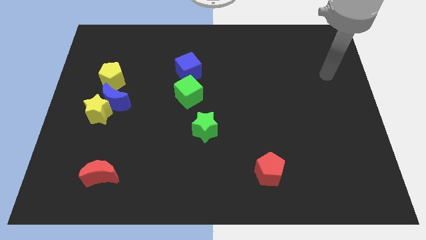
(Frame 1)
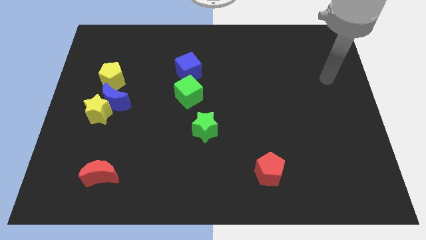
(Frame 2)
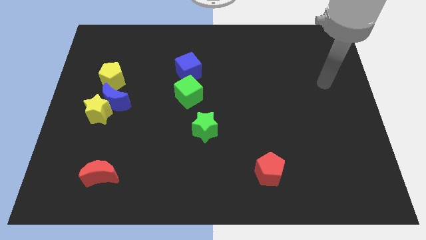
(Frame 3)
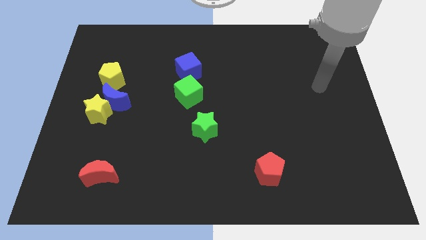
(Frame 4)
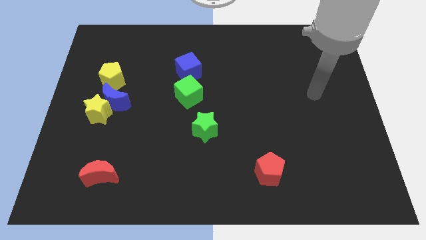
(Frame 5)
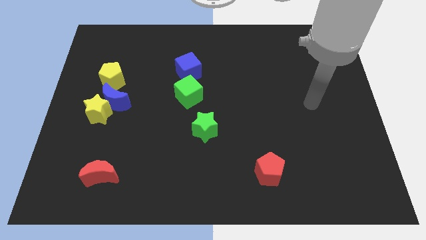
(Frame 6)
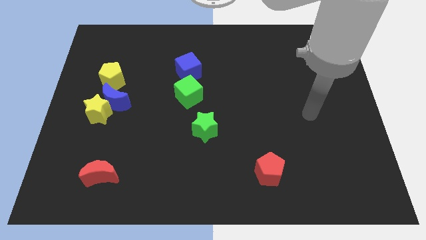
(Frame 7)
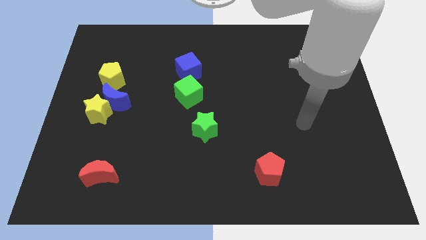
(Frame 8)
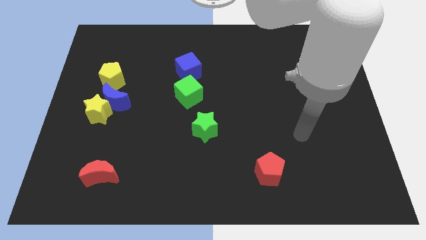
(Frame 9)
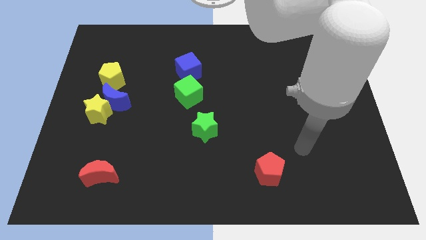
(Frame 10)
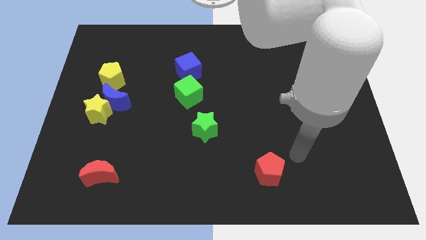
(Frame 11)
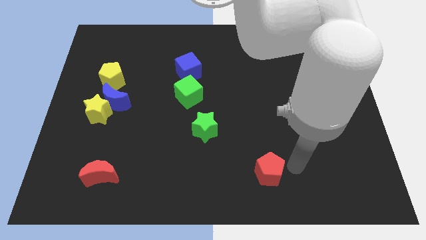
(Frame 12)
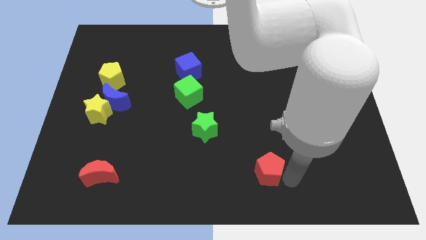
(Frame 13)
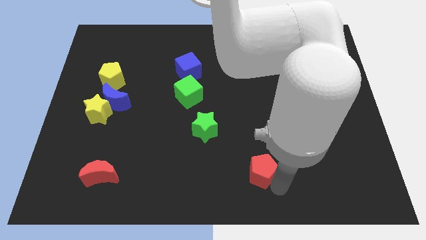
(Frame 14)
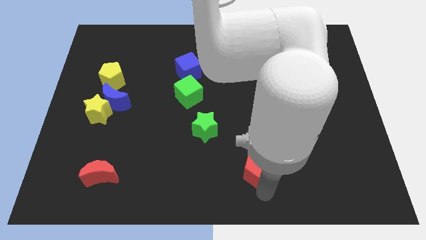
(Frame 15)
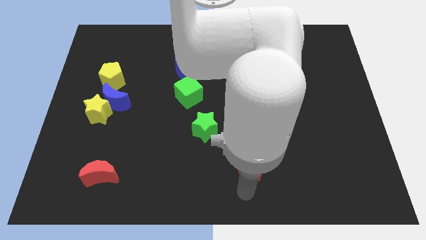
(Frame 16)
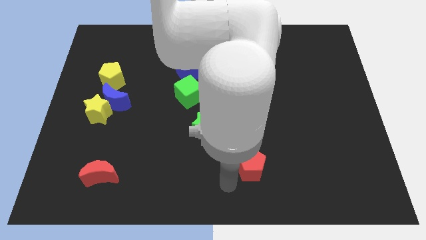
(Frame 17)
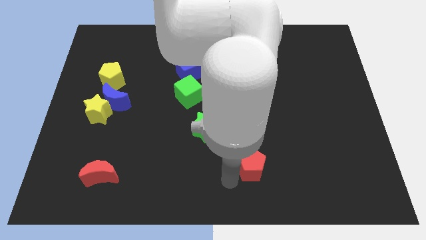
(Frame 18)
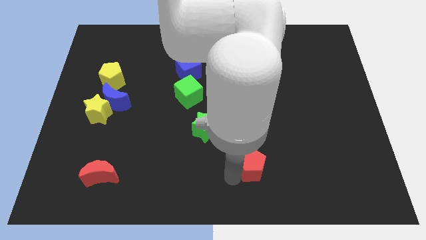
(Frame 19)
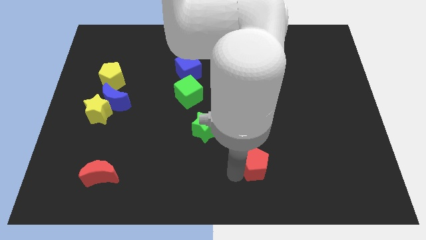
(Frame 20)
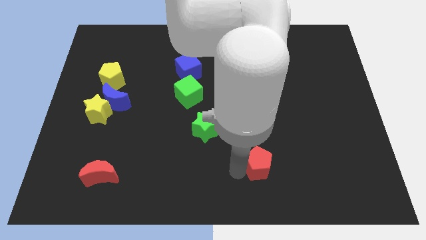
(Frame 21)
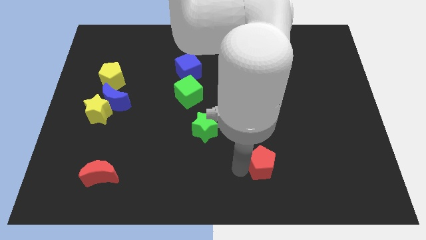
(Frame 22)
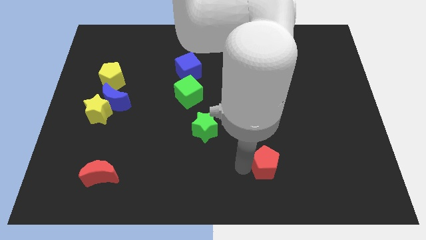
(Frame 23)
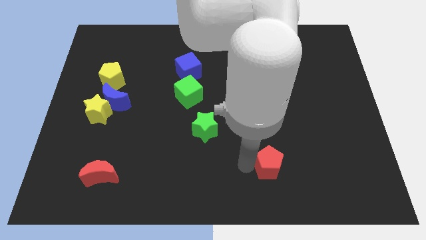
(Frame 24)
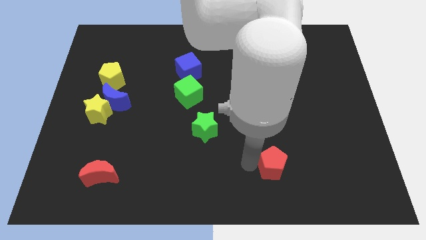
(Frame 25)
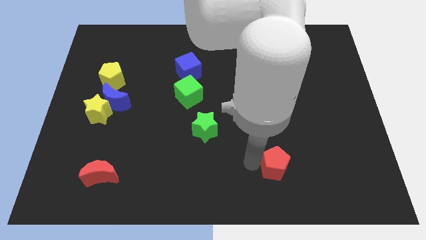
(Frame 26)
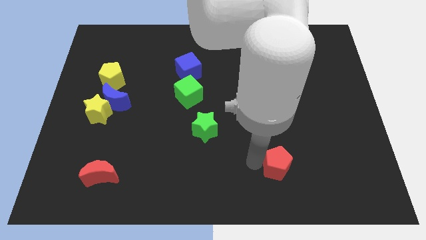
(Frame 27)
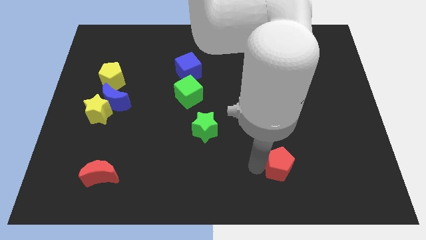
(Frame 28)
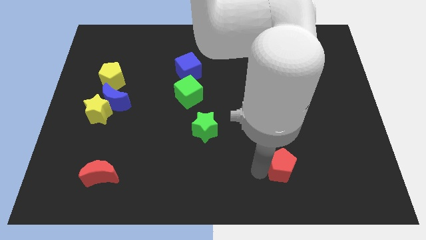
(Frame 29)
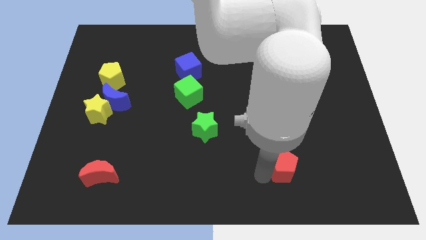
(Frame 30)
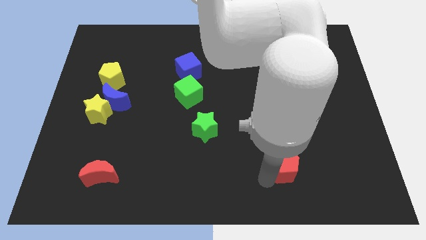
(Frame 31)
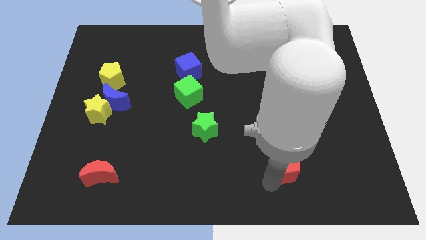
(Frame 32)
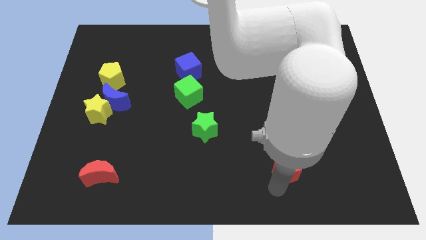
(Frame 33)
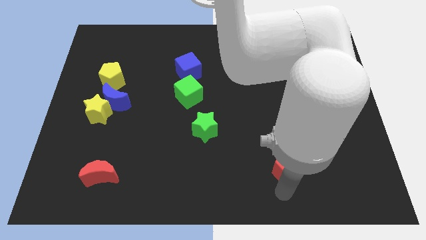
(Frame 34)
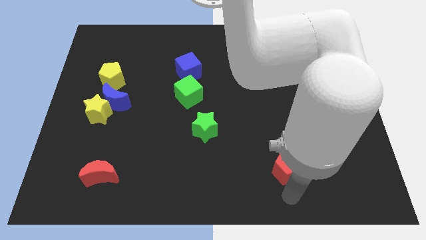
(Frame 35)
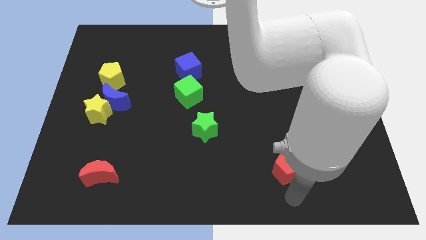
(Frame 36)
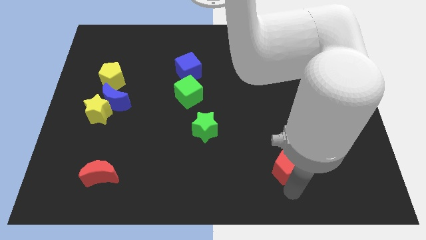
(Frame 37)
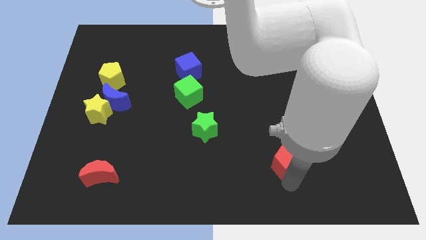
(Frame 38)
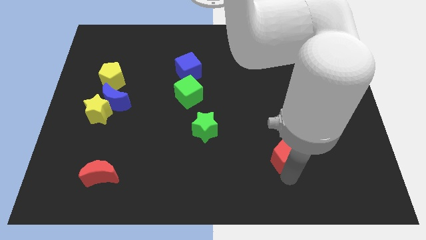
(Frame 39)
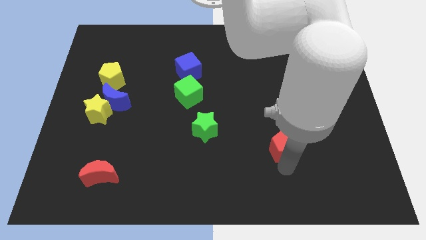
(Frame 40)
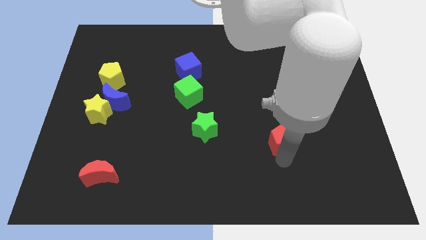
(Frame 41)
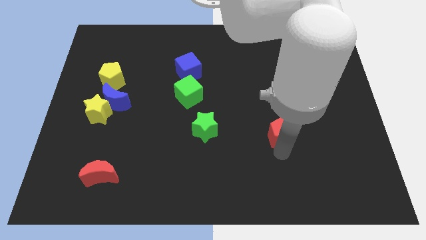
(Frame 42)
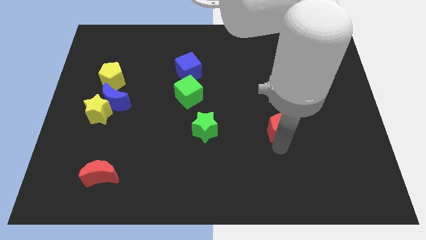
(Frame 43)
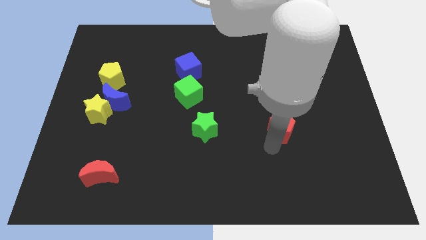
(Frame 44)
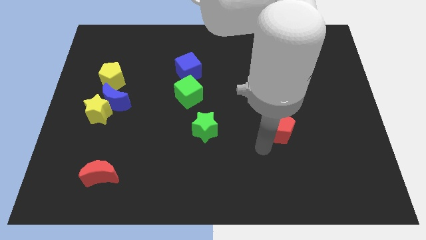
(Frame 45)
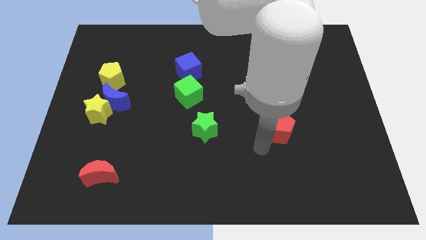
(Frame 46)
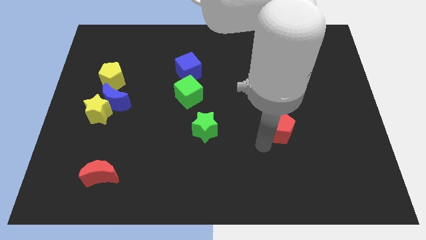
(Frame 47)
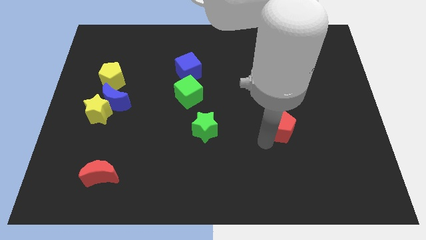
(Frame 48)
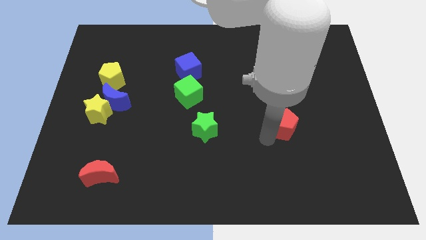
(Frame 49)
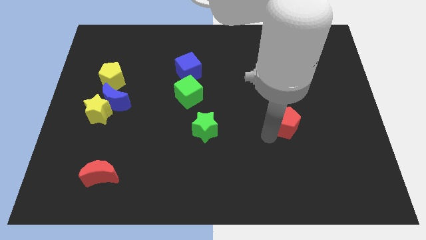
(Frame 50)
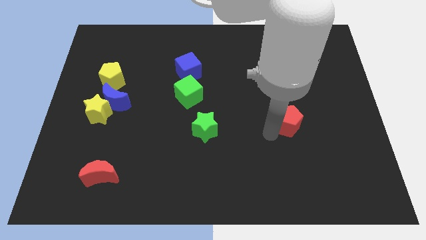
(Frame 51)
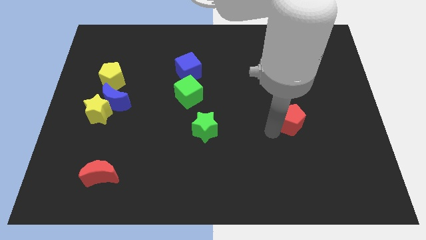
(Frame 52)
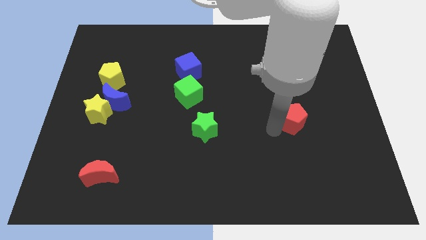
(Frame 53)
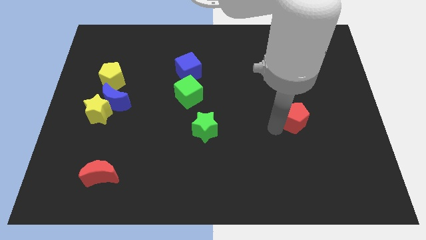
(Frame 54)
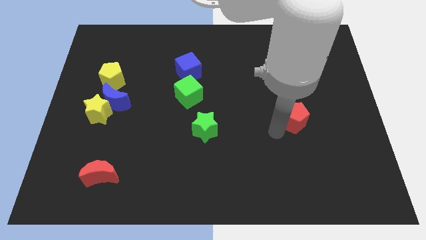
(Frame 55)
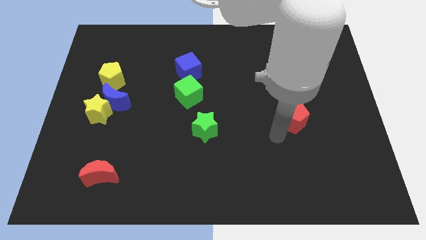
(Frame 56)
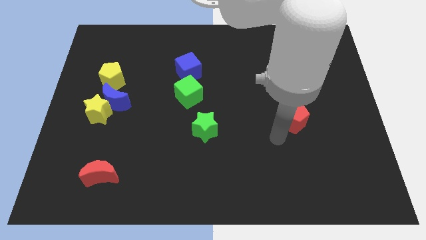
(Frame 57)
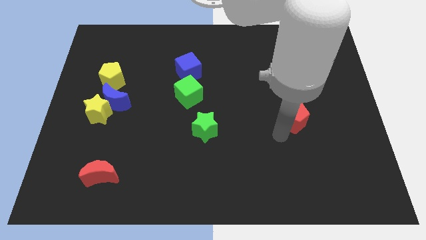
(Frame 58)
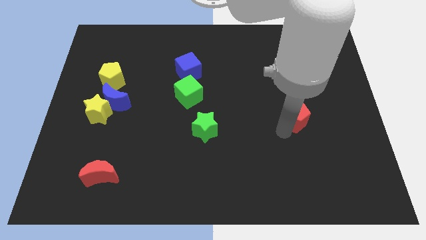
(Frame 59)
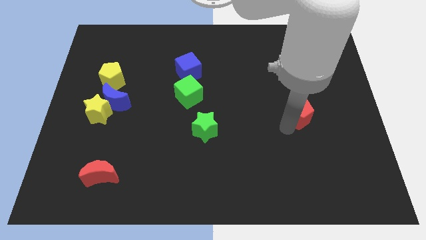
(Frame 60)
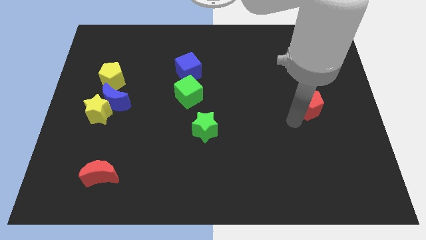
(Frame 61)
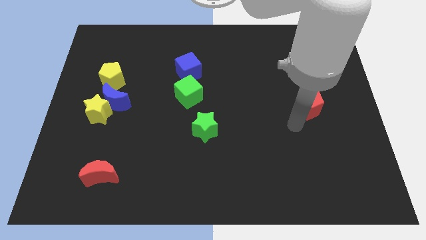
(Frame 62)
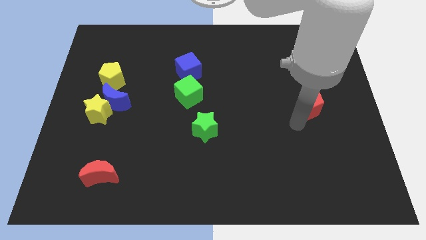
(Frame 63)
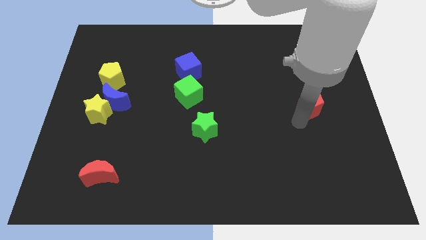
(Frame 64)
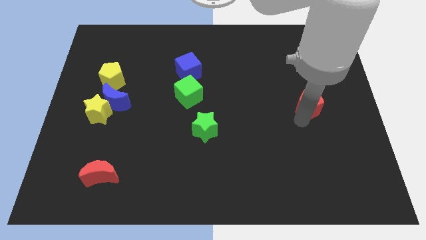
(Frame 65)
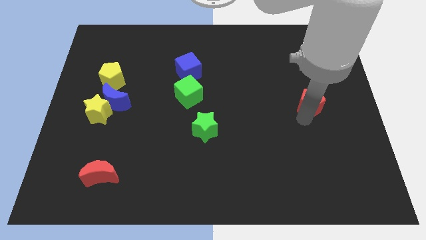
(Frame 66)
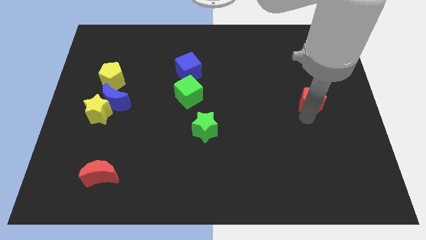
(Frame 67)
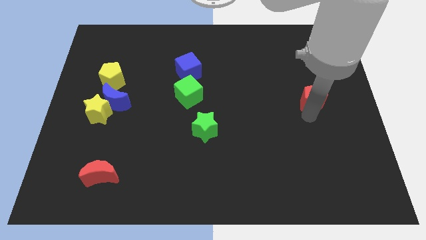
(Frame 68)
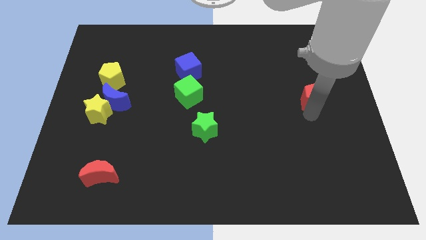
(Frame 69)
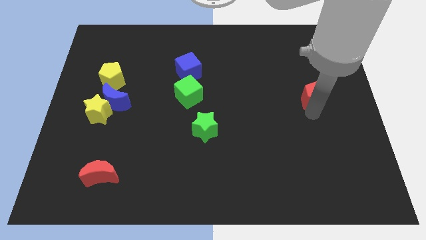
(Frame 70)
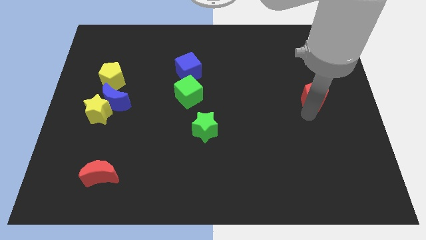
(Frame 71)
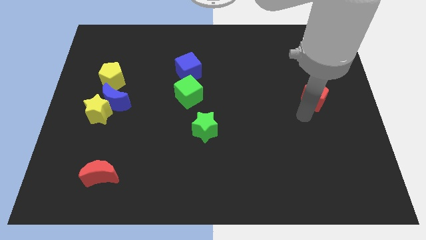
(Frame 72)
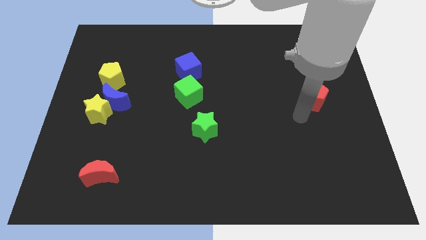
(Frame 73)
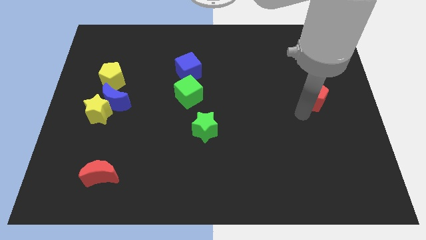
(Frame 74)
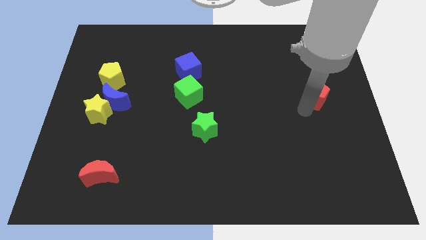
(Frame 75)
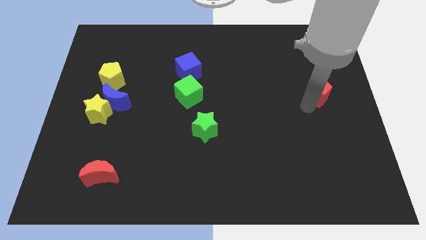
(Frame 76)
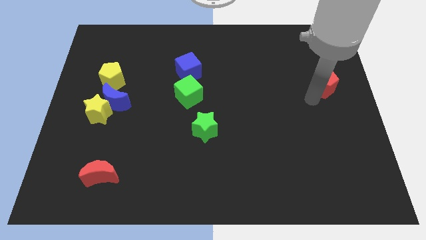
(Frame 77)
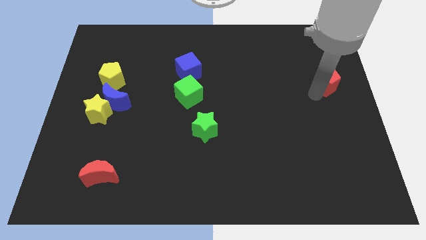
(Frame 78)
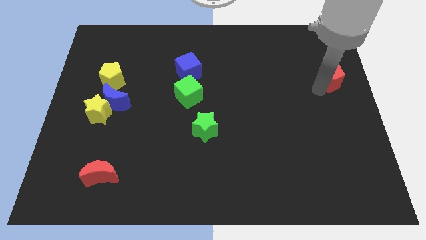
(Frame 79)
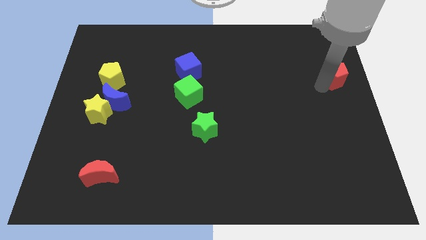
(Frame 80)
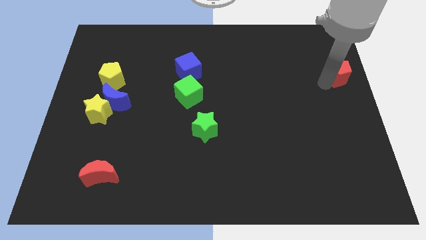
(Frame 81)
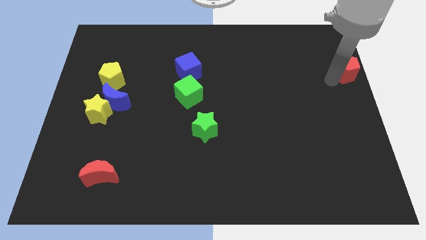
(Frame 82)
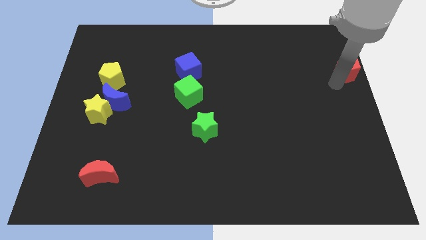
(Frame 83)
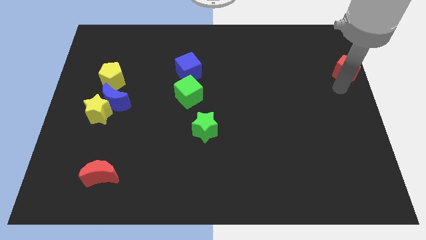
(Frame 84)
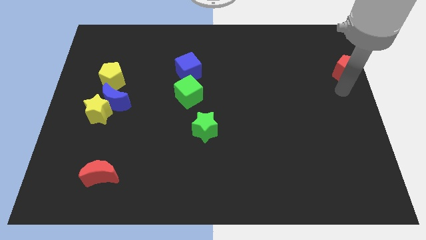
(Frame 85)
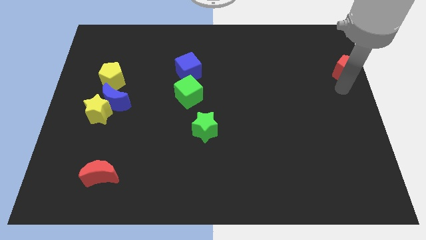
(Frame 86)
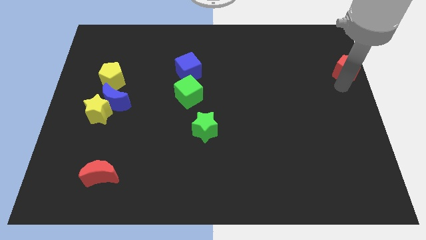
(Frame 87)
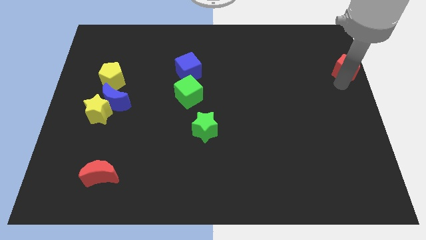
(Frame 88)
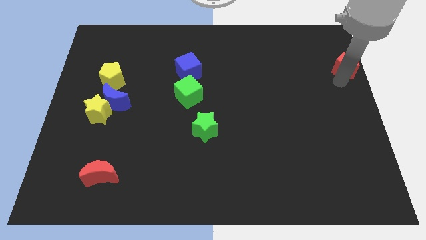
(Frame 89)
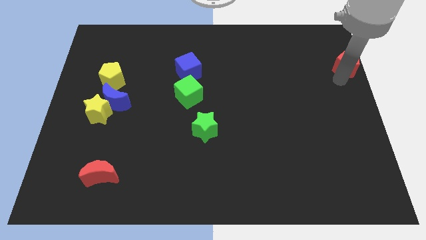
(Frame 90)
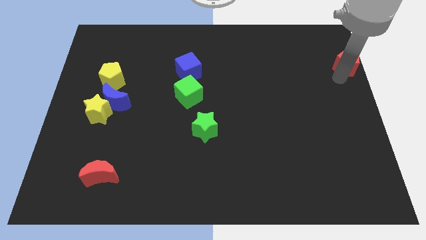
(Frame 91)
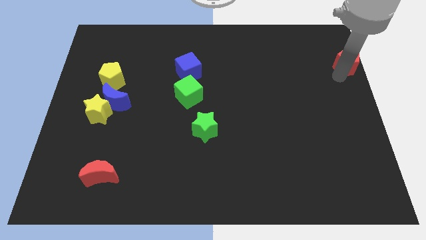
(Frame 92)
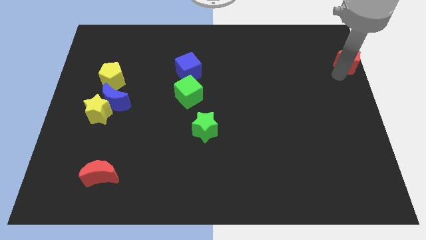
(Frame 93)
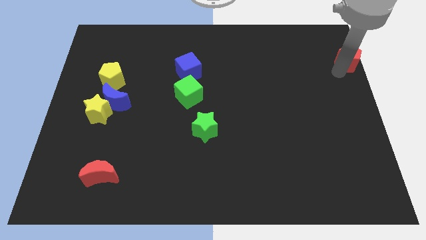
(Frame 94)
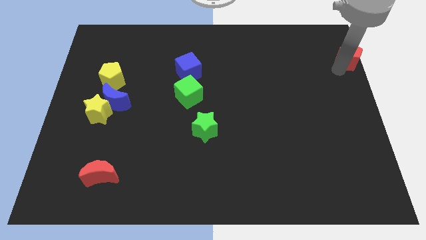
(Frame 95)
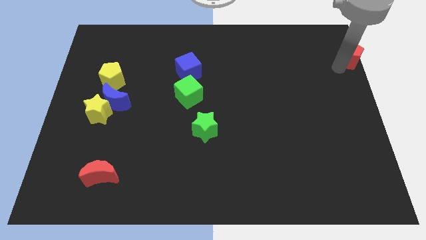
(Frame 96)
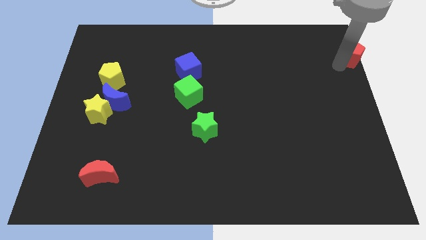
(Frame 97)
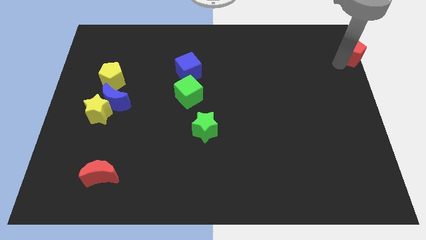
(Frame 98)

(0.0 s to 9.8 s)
slide the red pentagon to the top right of the board
